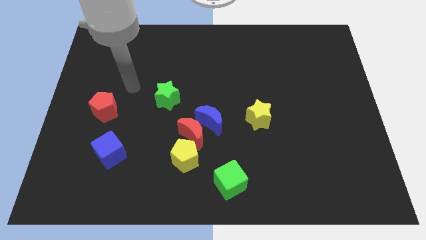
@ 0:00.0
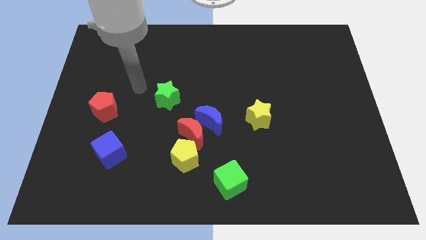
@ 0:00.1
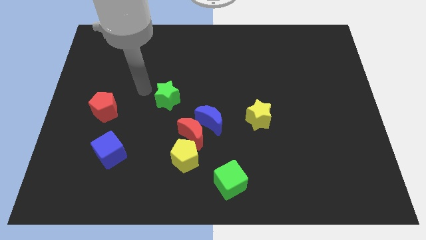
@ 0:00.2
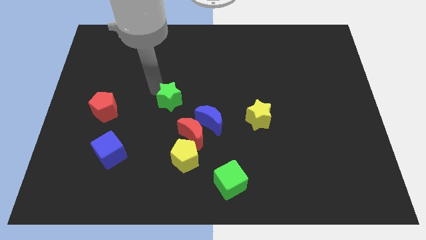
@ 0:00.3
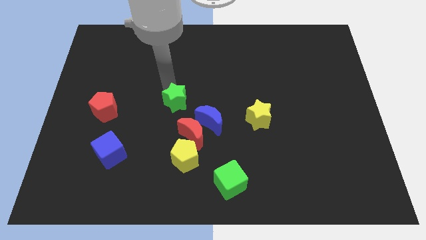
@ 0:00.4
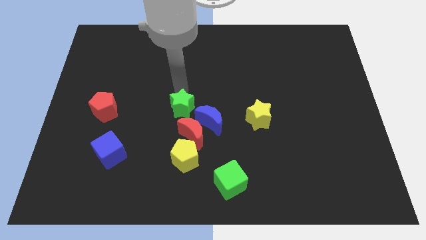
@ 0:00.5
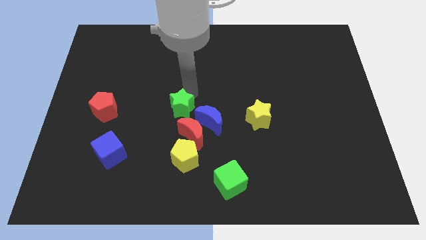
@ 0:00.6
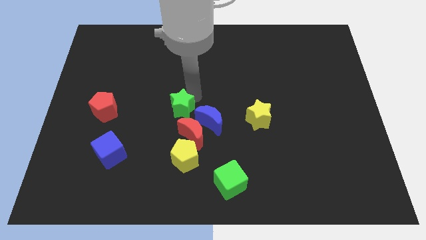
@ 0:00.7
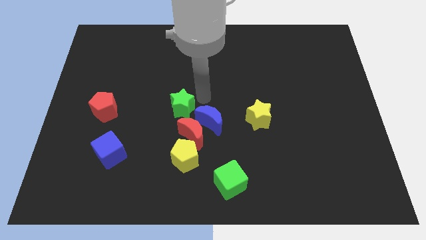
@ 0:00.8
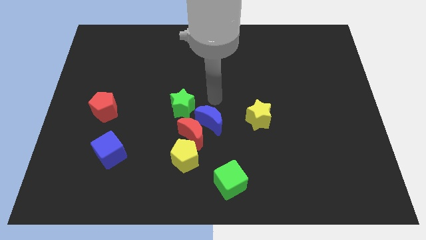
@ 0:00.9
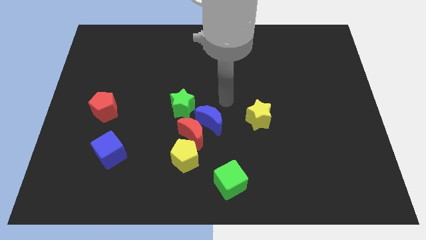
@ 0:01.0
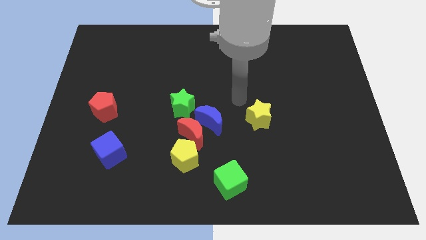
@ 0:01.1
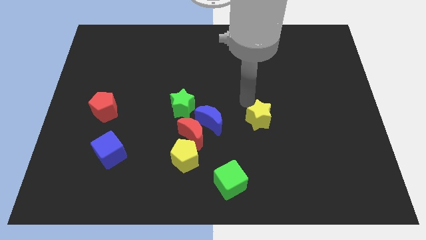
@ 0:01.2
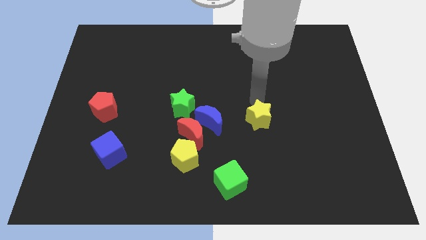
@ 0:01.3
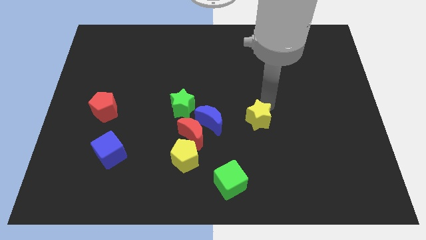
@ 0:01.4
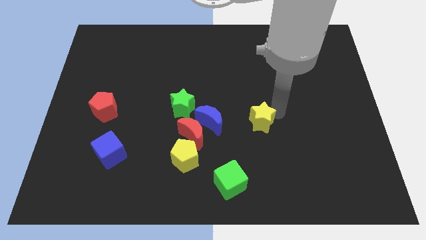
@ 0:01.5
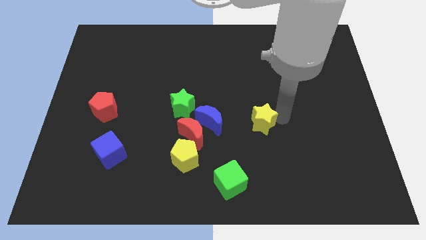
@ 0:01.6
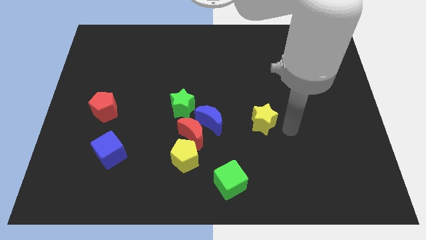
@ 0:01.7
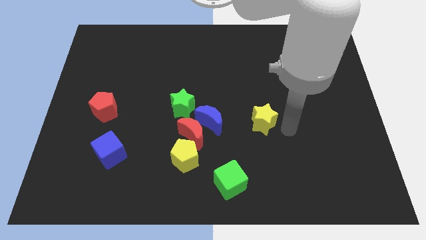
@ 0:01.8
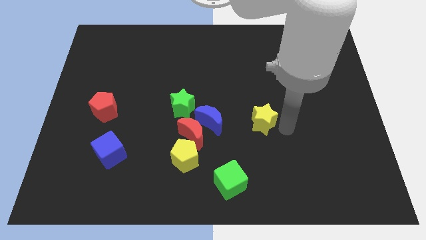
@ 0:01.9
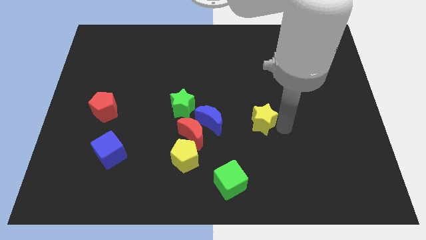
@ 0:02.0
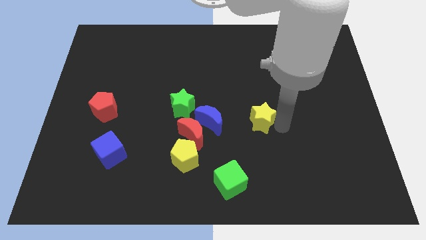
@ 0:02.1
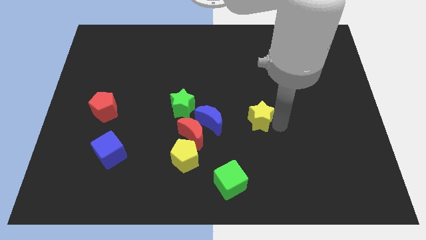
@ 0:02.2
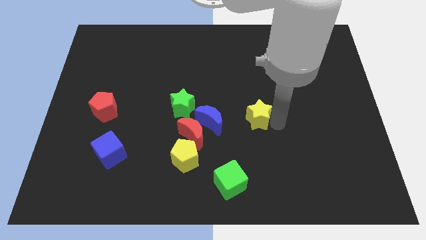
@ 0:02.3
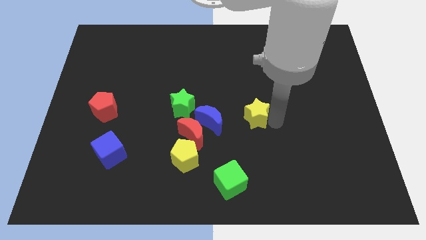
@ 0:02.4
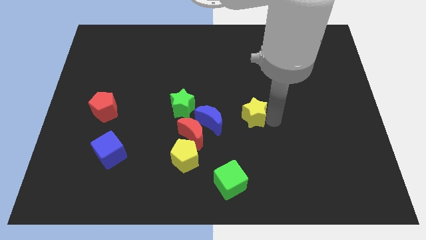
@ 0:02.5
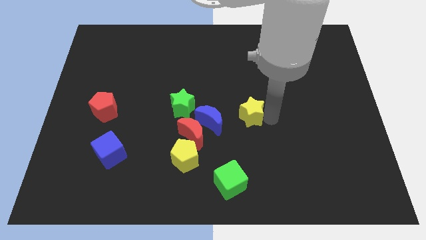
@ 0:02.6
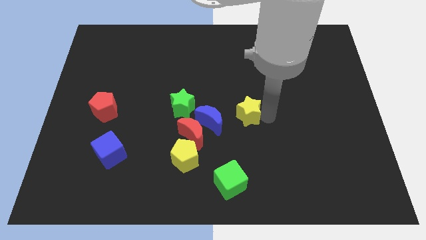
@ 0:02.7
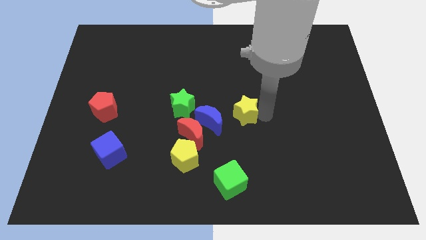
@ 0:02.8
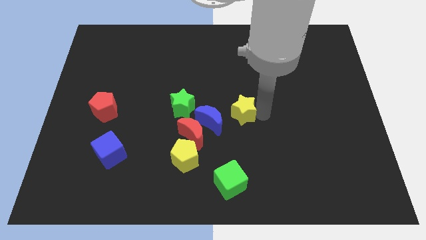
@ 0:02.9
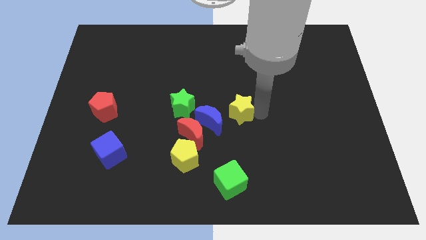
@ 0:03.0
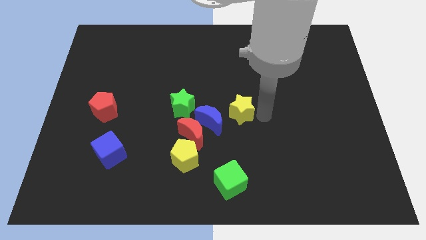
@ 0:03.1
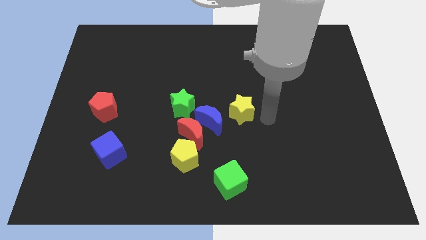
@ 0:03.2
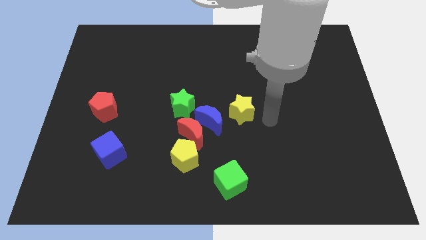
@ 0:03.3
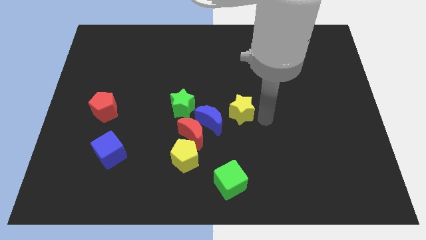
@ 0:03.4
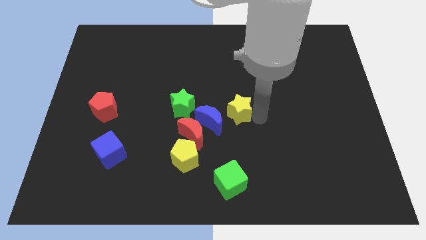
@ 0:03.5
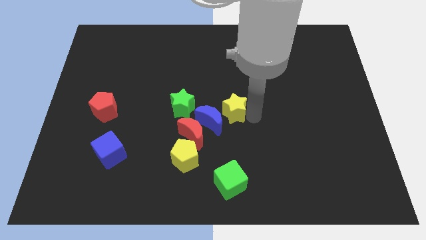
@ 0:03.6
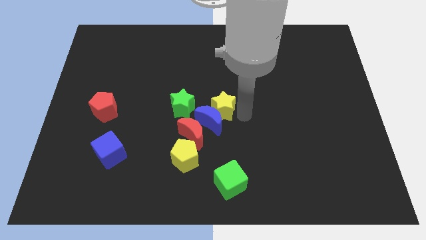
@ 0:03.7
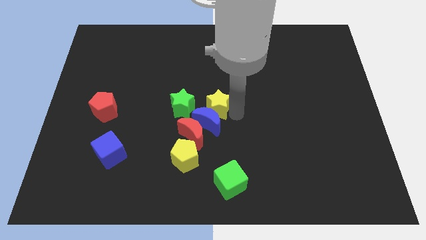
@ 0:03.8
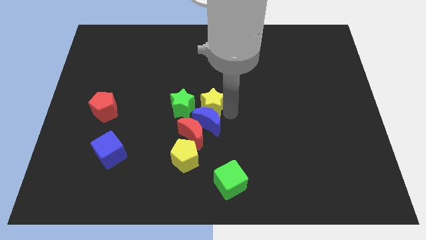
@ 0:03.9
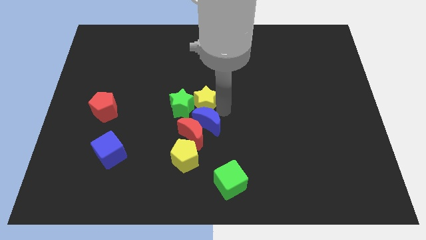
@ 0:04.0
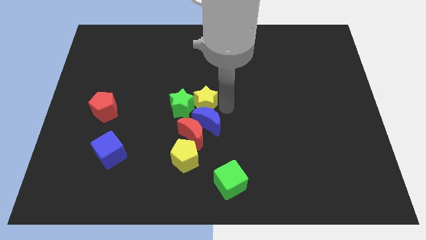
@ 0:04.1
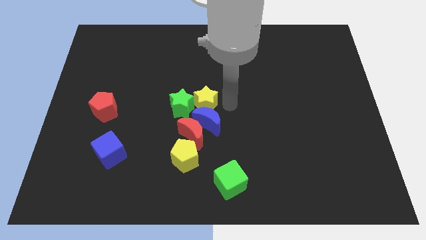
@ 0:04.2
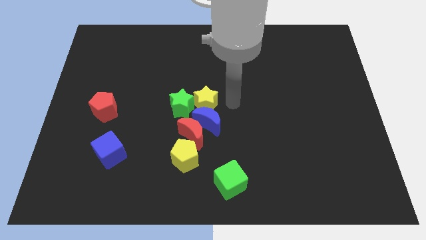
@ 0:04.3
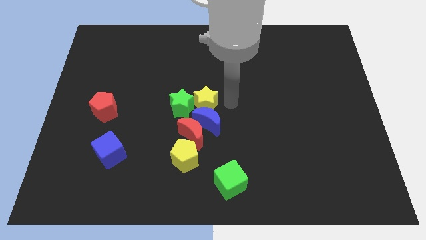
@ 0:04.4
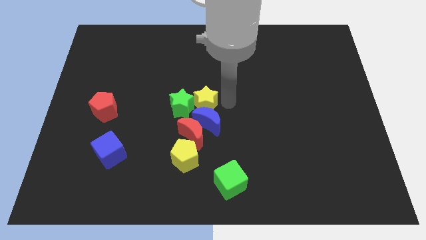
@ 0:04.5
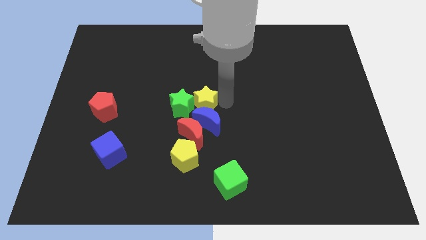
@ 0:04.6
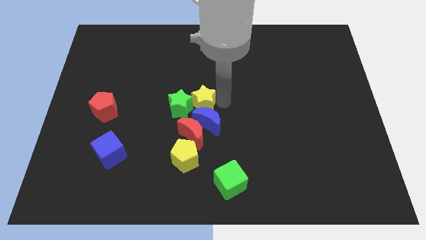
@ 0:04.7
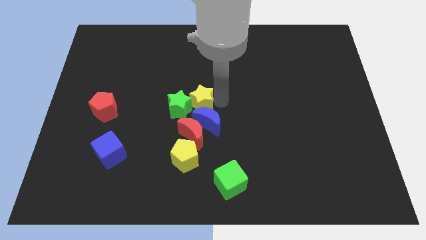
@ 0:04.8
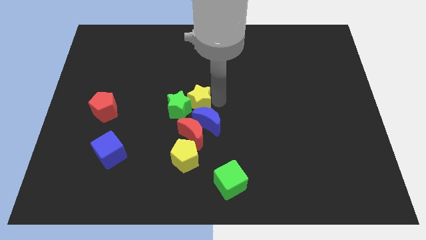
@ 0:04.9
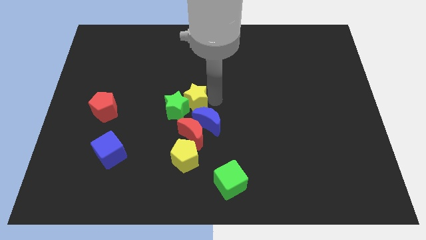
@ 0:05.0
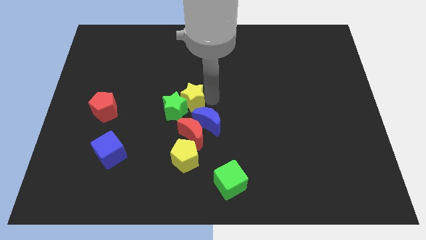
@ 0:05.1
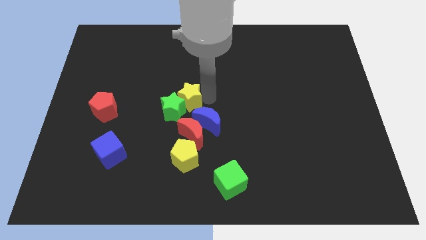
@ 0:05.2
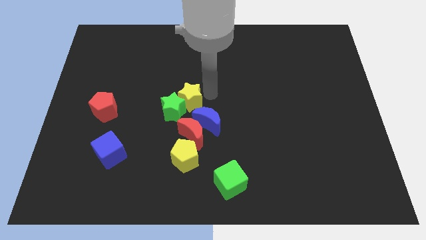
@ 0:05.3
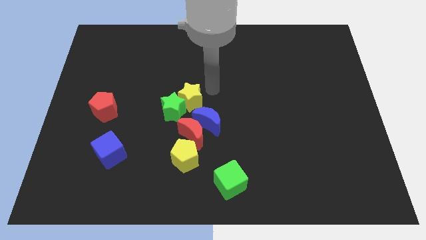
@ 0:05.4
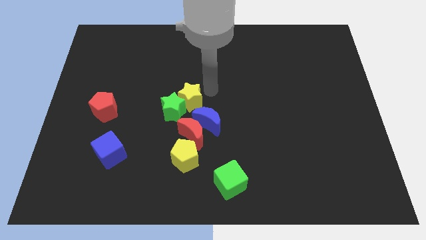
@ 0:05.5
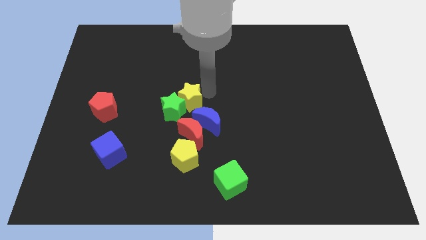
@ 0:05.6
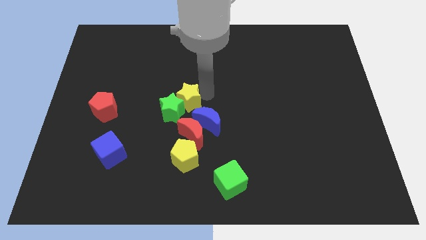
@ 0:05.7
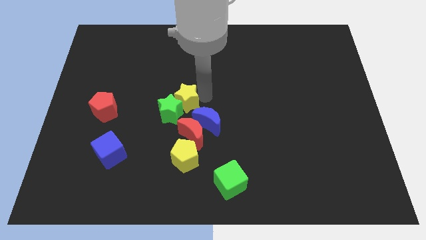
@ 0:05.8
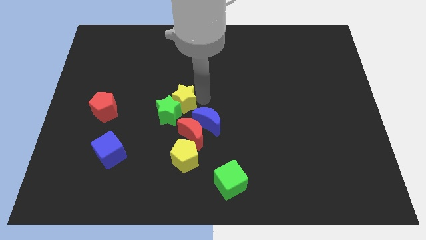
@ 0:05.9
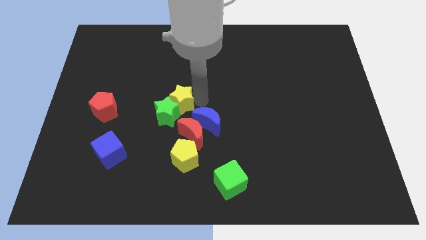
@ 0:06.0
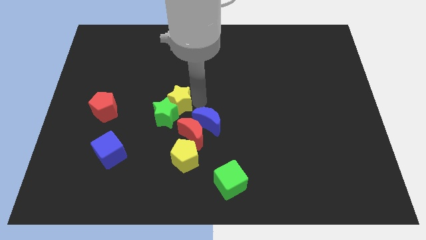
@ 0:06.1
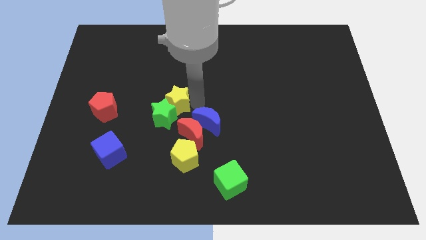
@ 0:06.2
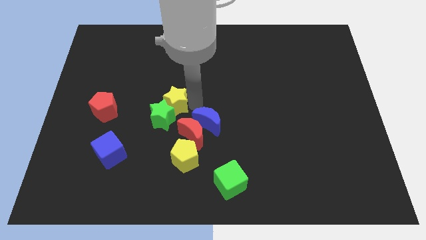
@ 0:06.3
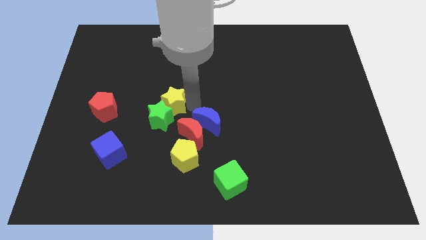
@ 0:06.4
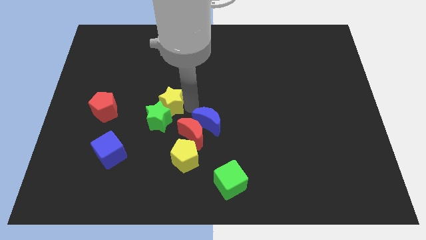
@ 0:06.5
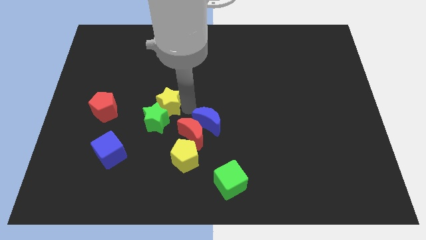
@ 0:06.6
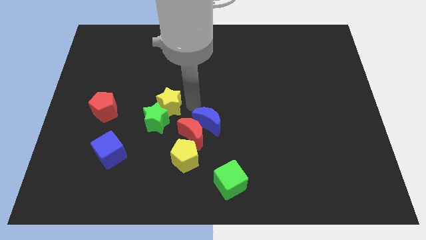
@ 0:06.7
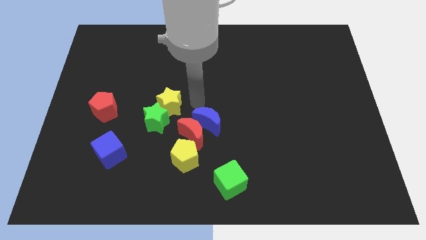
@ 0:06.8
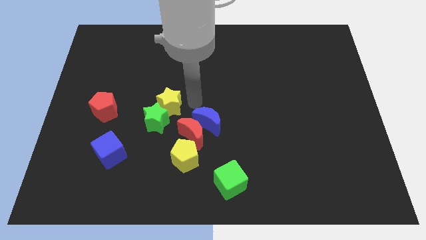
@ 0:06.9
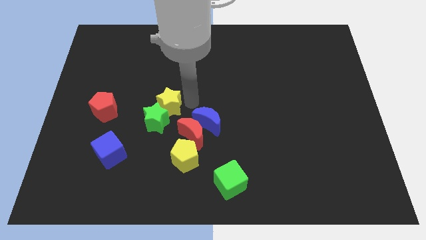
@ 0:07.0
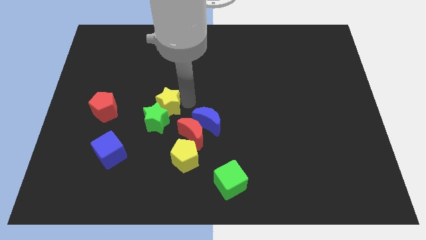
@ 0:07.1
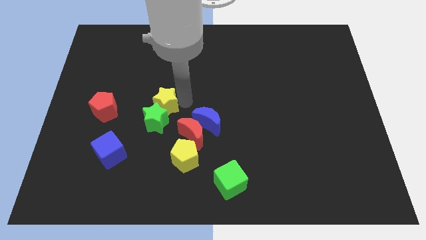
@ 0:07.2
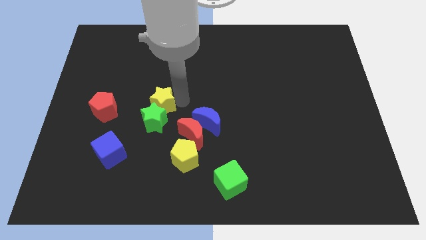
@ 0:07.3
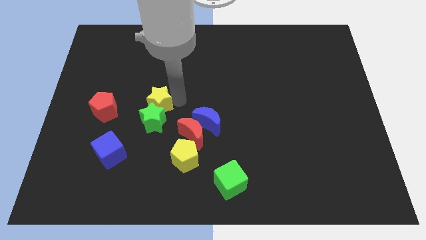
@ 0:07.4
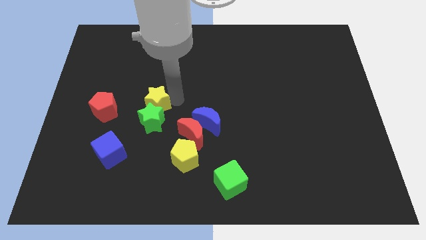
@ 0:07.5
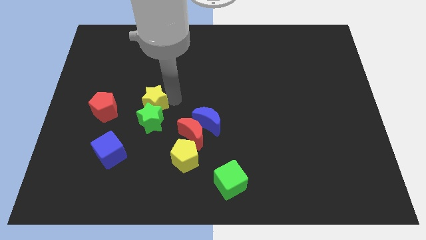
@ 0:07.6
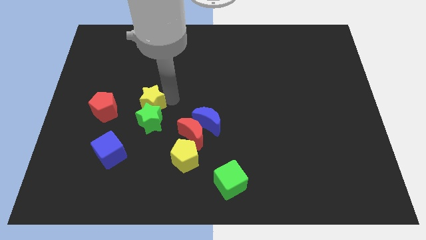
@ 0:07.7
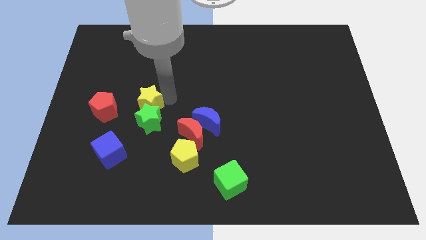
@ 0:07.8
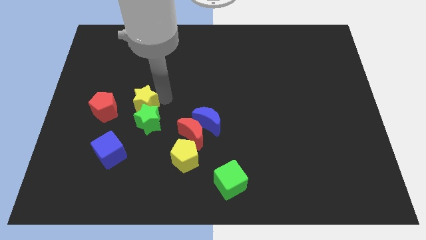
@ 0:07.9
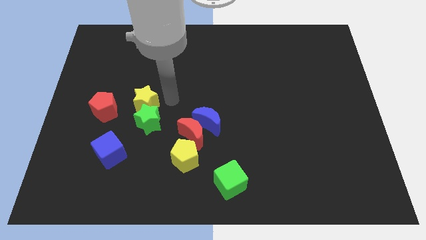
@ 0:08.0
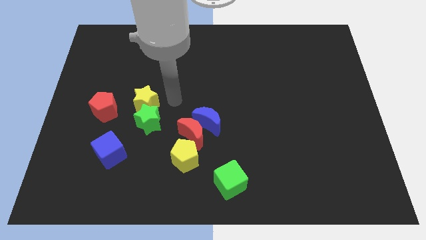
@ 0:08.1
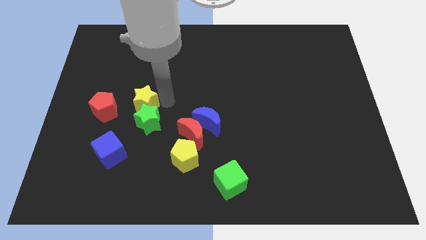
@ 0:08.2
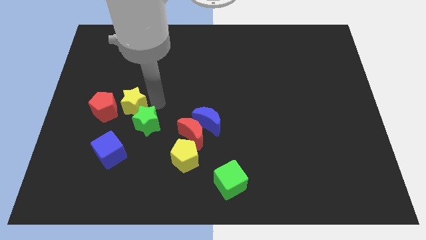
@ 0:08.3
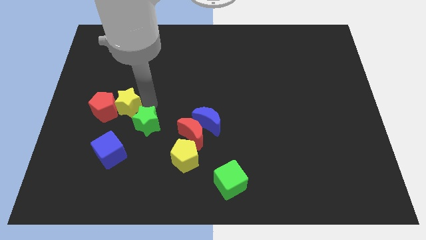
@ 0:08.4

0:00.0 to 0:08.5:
push the yellow star to the red pentagon
